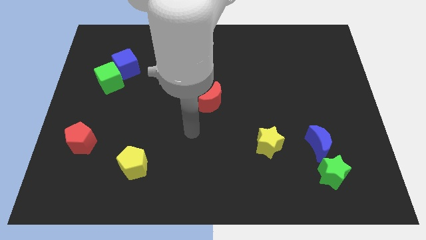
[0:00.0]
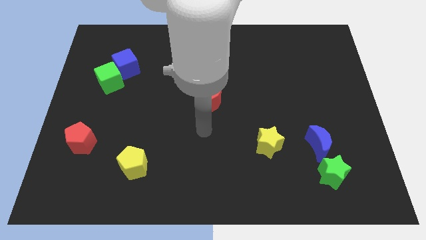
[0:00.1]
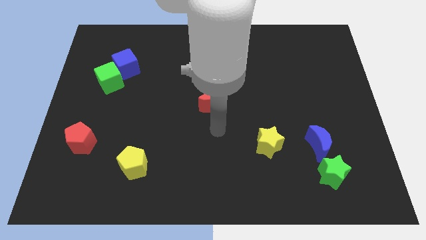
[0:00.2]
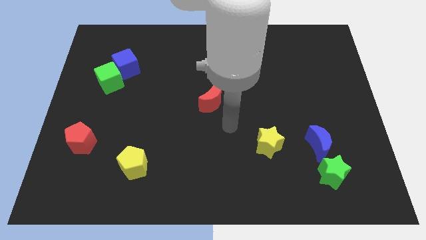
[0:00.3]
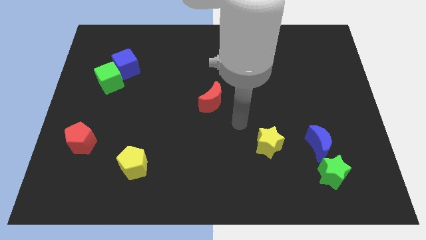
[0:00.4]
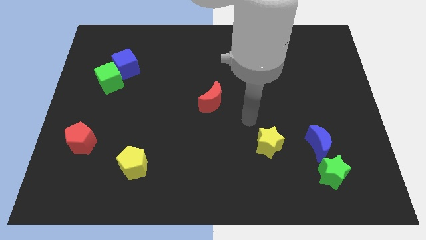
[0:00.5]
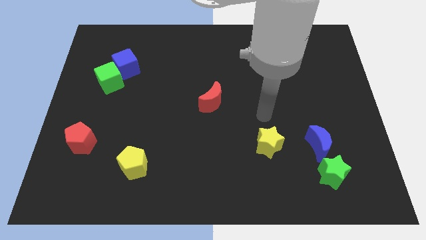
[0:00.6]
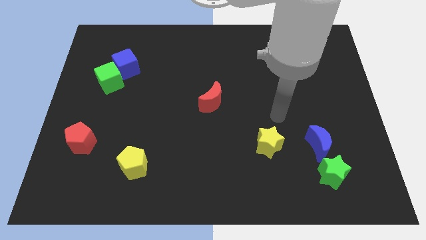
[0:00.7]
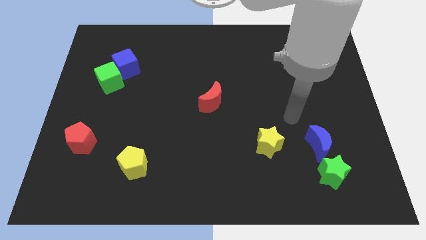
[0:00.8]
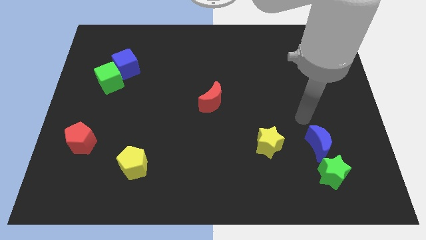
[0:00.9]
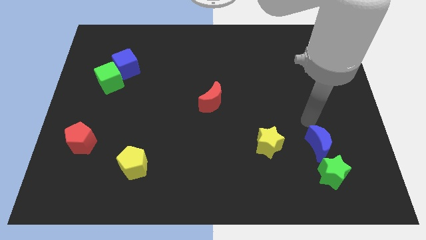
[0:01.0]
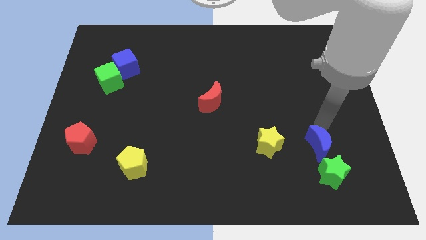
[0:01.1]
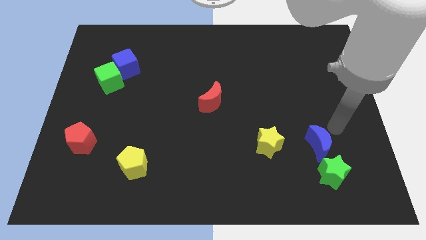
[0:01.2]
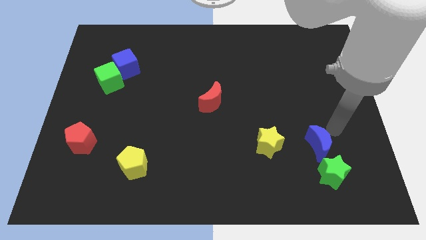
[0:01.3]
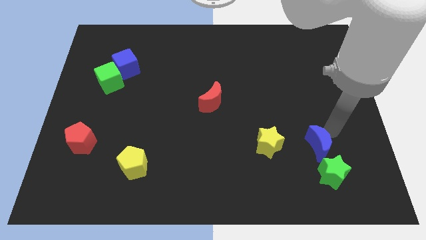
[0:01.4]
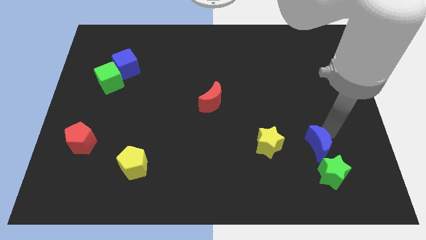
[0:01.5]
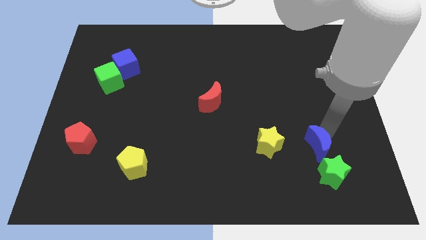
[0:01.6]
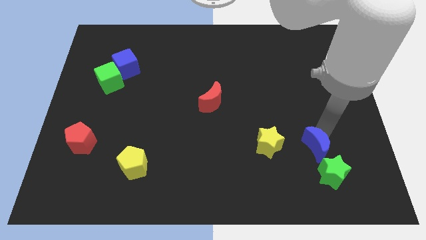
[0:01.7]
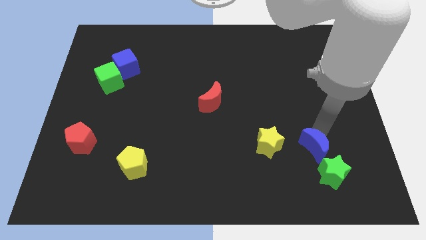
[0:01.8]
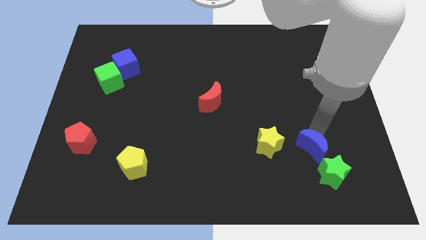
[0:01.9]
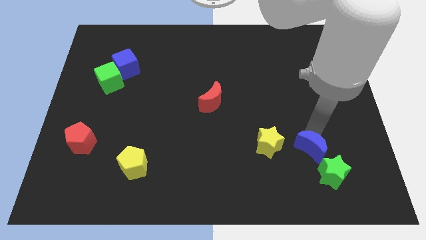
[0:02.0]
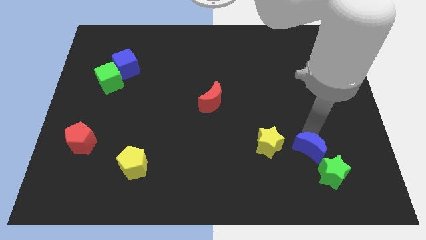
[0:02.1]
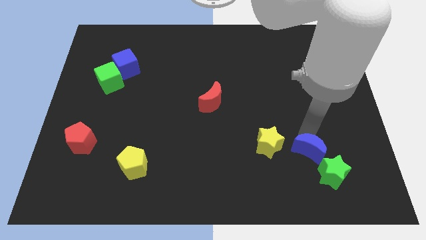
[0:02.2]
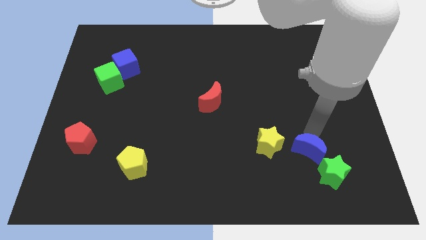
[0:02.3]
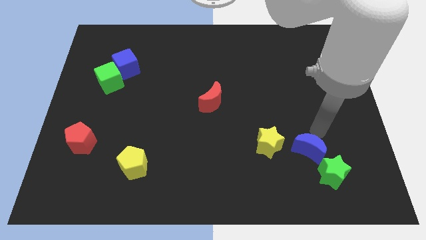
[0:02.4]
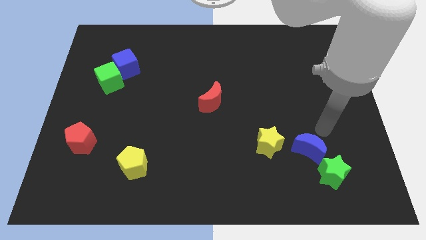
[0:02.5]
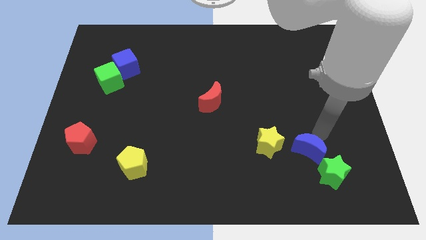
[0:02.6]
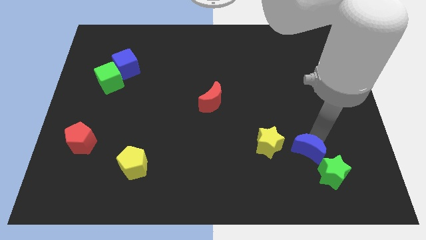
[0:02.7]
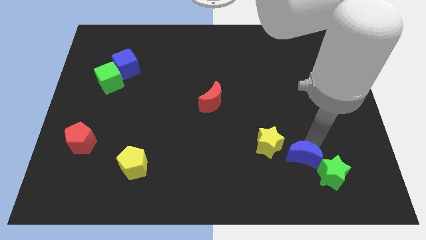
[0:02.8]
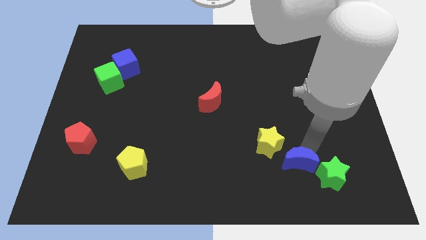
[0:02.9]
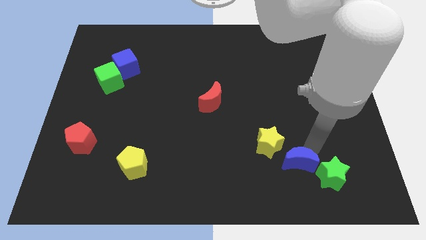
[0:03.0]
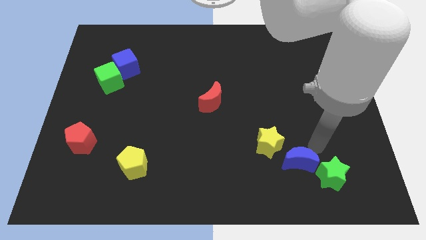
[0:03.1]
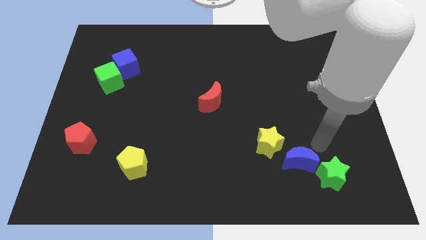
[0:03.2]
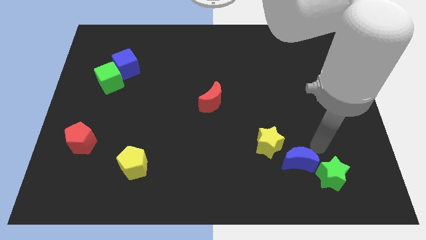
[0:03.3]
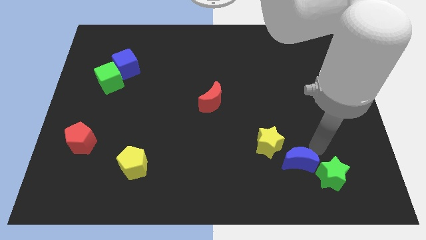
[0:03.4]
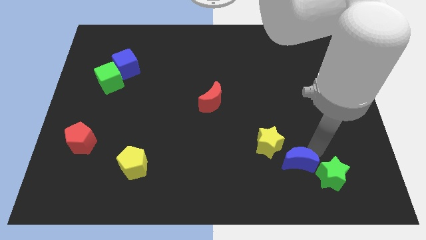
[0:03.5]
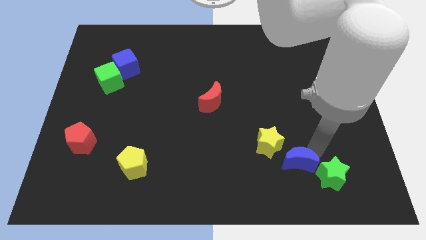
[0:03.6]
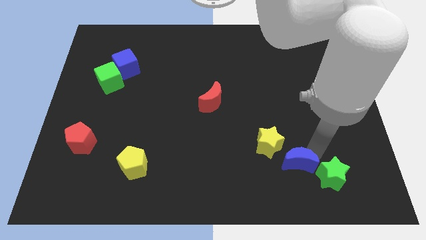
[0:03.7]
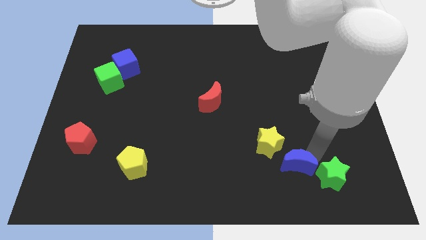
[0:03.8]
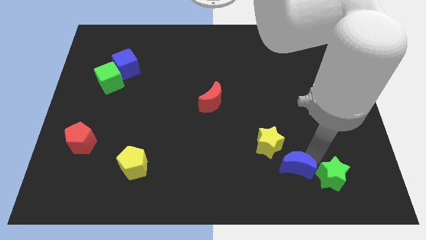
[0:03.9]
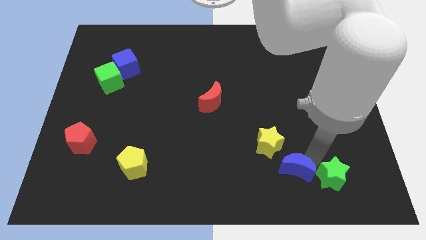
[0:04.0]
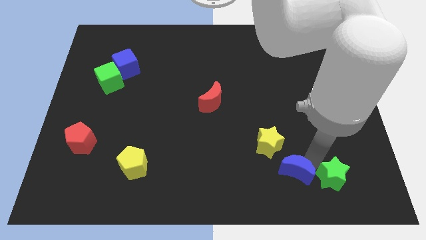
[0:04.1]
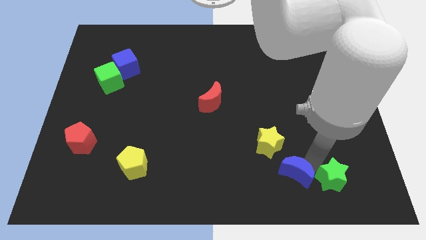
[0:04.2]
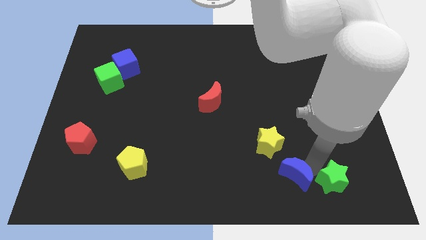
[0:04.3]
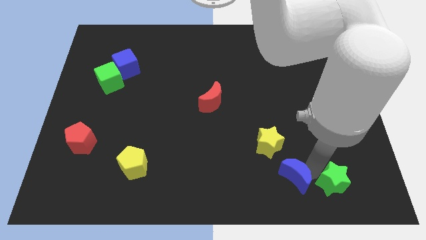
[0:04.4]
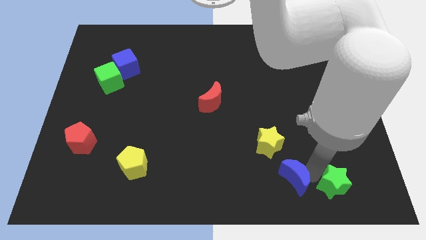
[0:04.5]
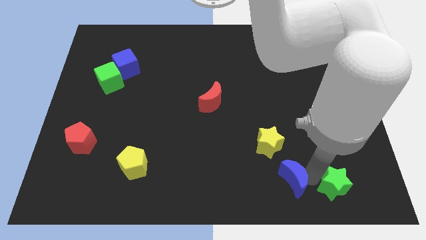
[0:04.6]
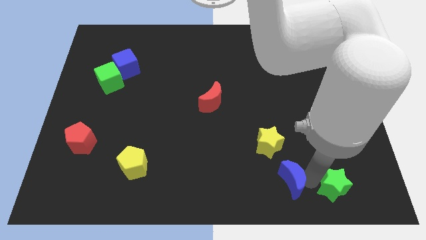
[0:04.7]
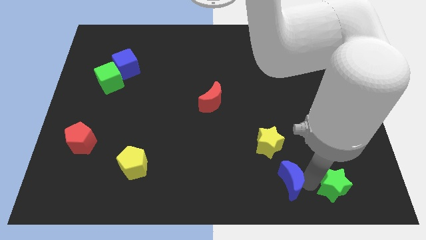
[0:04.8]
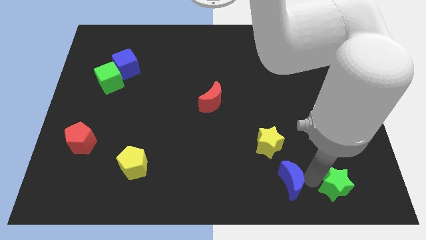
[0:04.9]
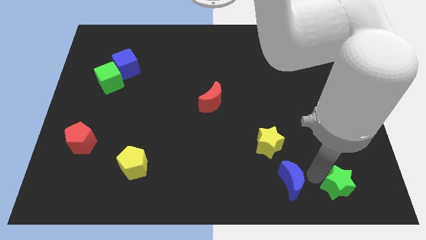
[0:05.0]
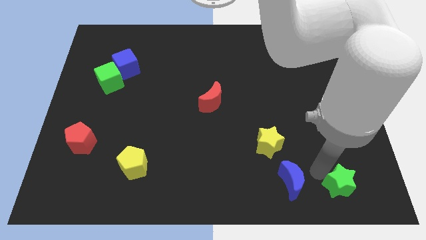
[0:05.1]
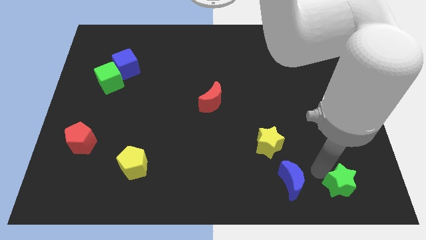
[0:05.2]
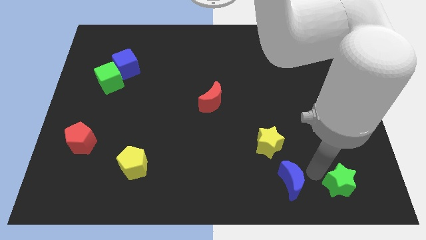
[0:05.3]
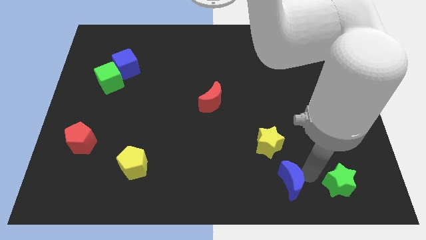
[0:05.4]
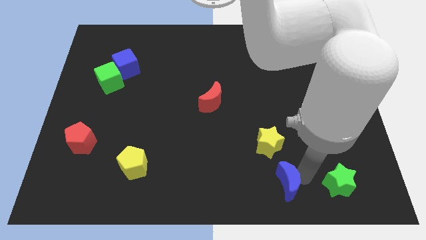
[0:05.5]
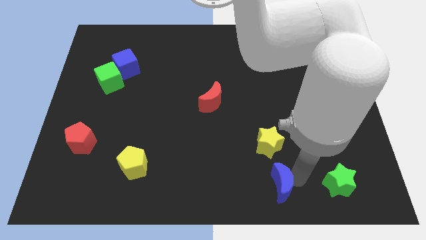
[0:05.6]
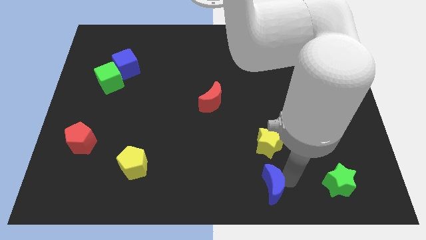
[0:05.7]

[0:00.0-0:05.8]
push the blue moon to the bottom

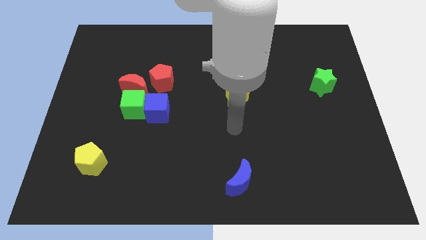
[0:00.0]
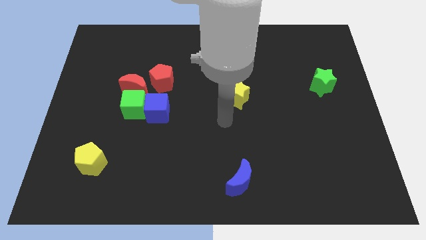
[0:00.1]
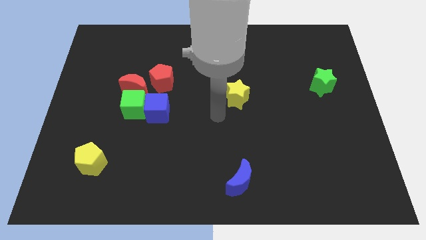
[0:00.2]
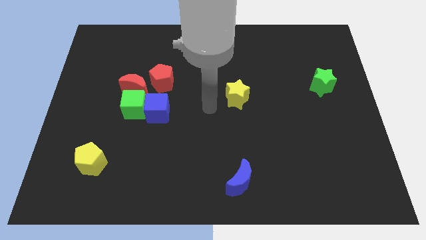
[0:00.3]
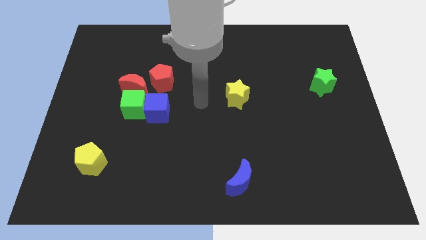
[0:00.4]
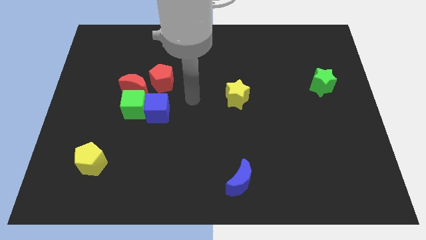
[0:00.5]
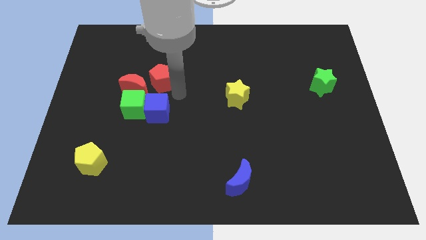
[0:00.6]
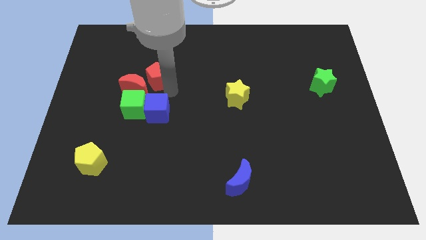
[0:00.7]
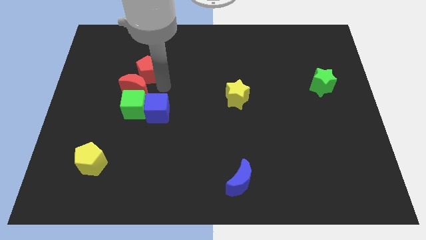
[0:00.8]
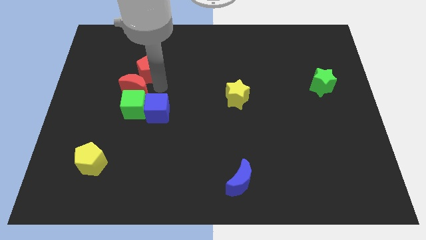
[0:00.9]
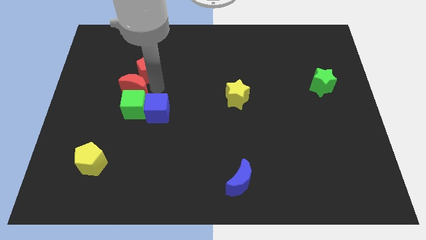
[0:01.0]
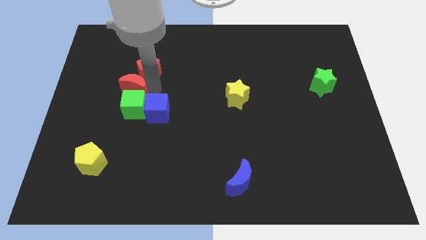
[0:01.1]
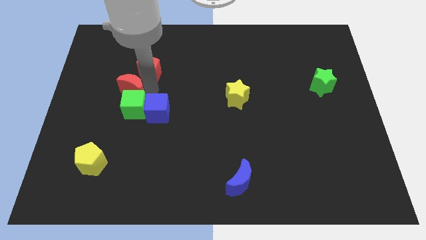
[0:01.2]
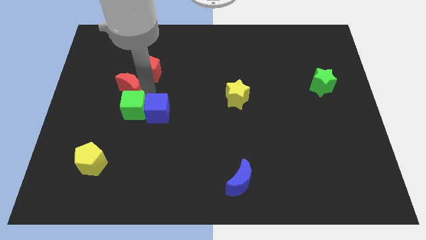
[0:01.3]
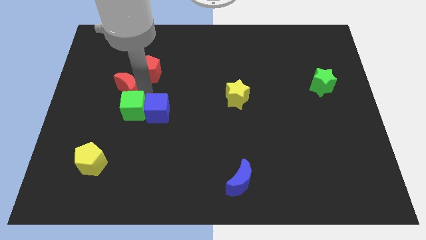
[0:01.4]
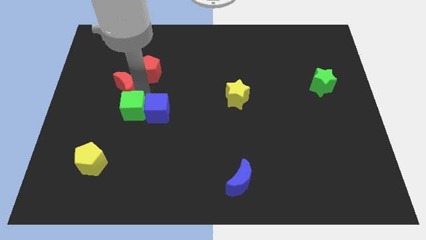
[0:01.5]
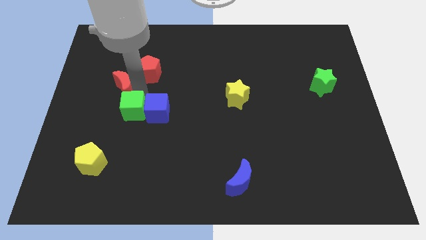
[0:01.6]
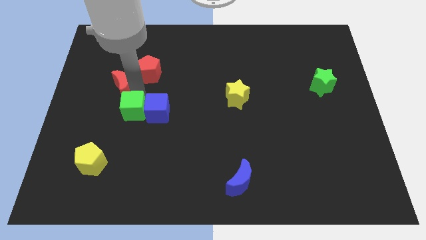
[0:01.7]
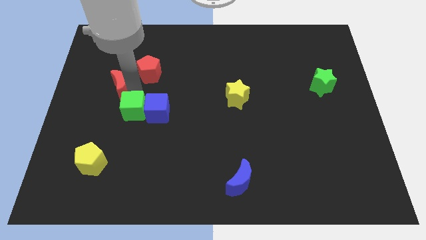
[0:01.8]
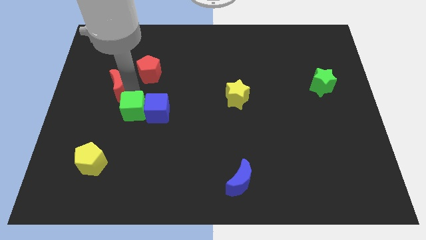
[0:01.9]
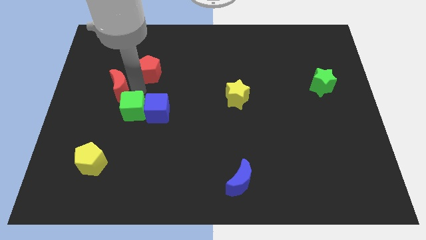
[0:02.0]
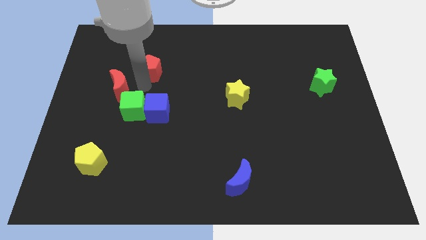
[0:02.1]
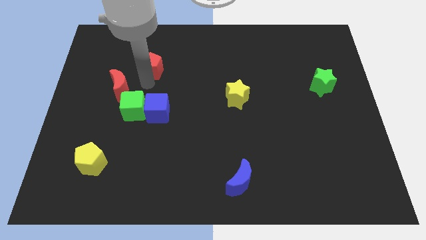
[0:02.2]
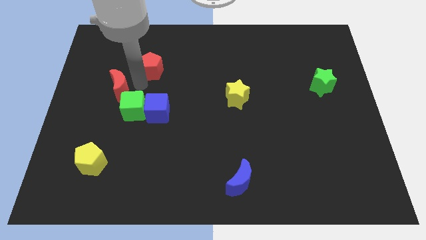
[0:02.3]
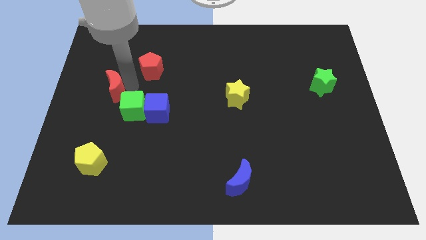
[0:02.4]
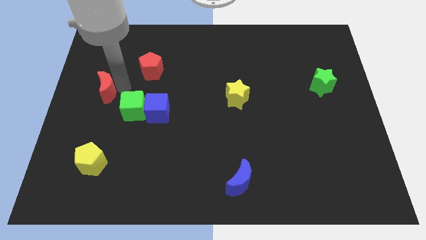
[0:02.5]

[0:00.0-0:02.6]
slide the red moon to the left side of the board
